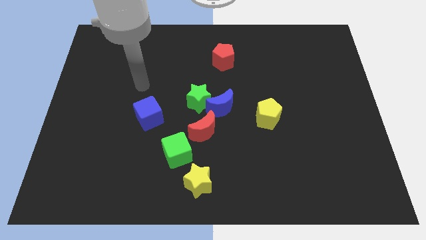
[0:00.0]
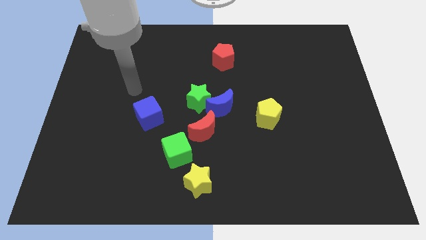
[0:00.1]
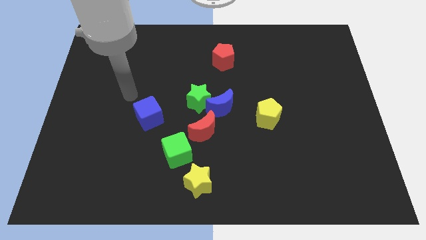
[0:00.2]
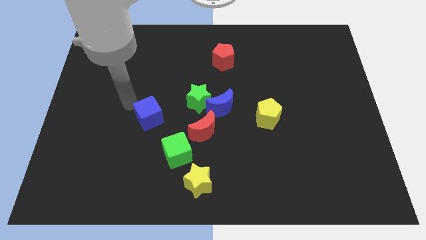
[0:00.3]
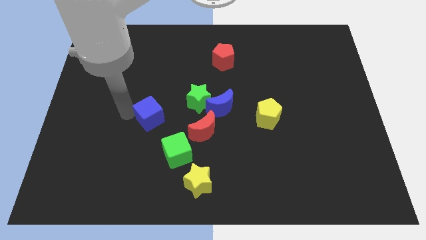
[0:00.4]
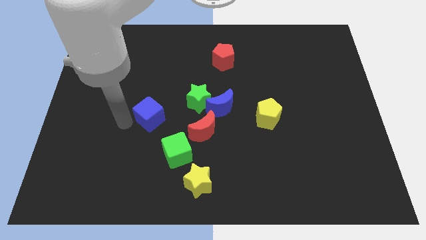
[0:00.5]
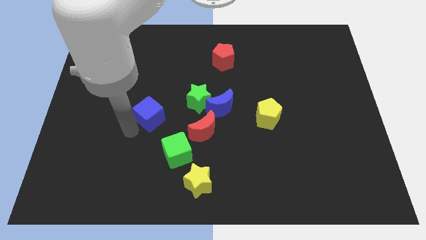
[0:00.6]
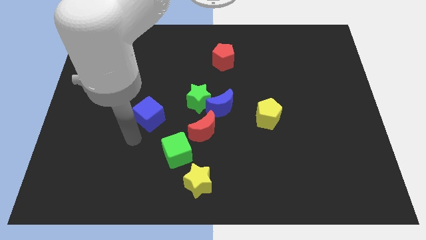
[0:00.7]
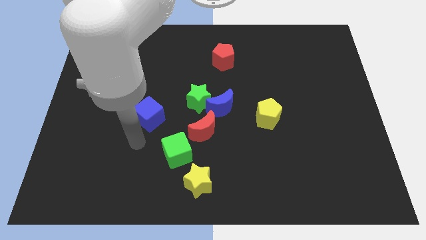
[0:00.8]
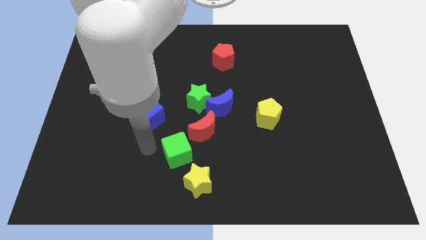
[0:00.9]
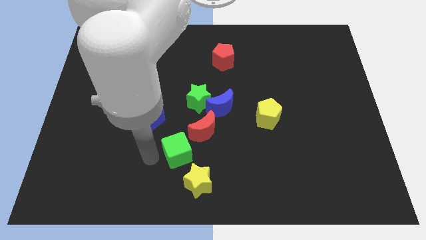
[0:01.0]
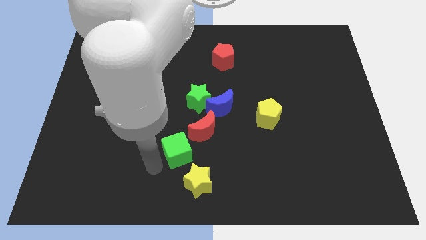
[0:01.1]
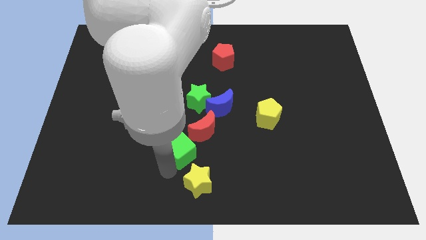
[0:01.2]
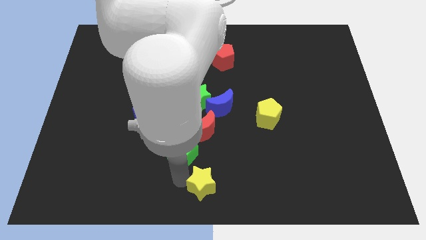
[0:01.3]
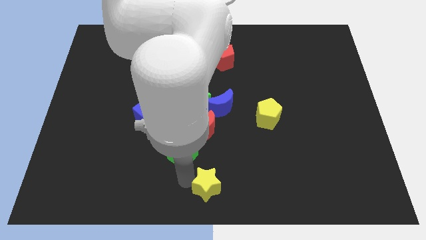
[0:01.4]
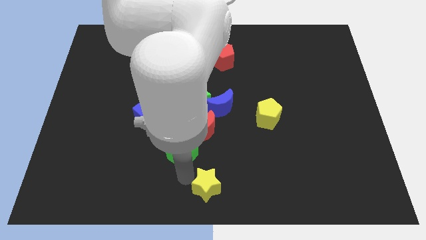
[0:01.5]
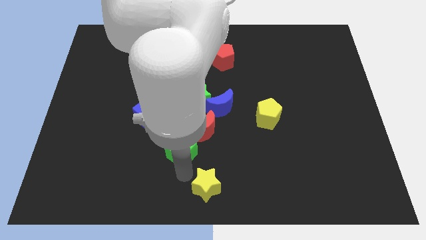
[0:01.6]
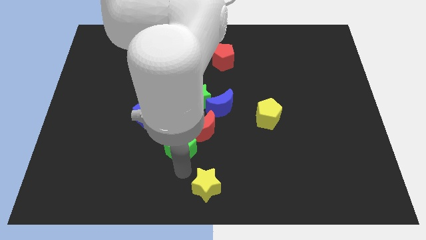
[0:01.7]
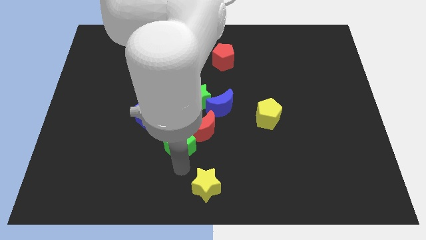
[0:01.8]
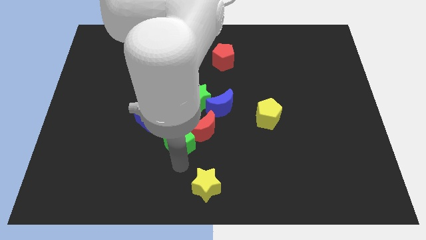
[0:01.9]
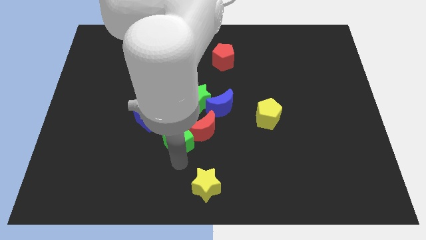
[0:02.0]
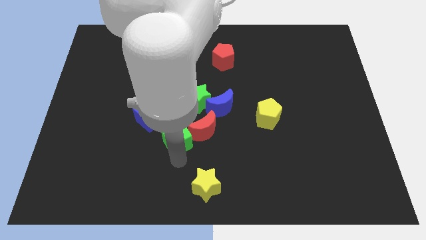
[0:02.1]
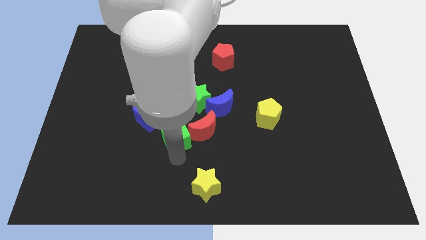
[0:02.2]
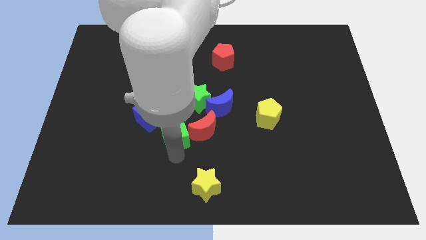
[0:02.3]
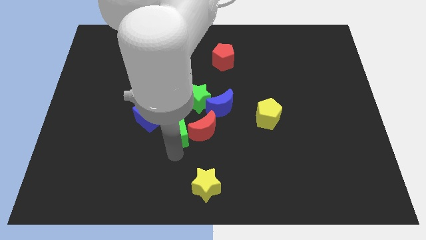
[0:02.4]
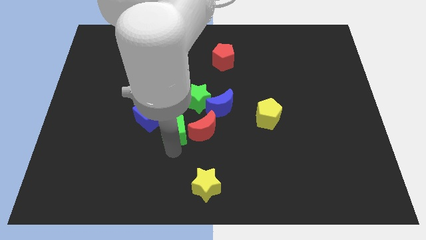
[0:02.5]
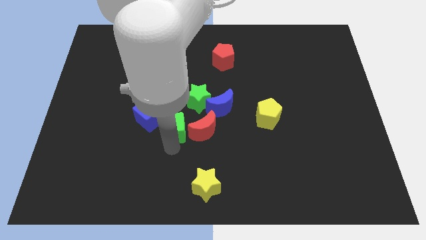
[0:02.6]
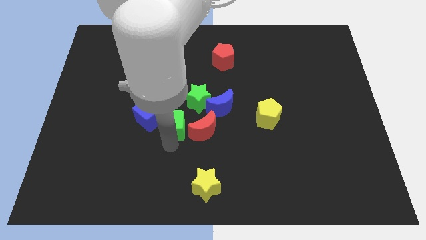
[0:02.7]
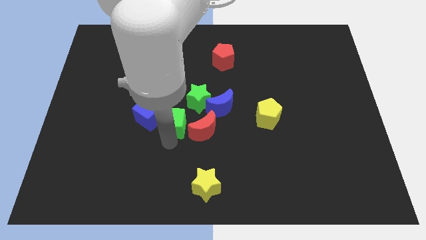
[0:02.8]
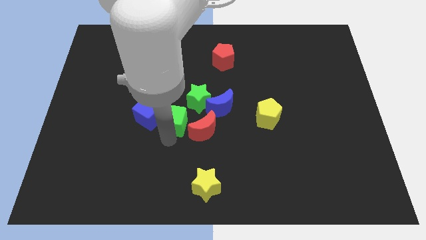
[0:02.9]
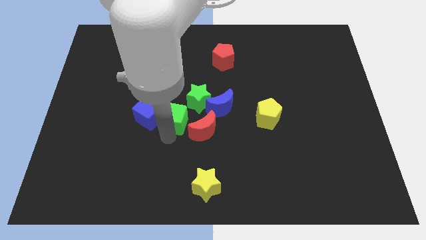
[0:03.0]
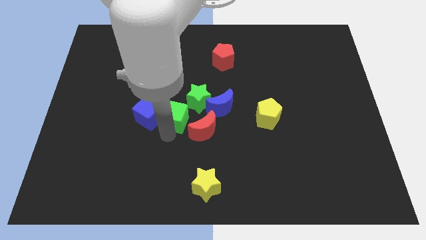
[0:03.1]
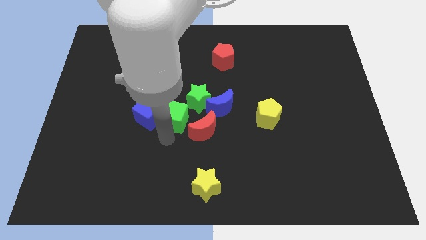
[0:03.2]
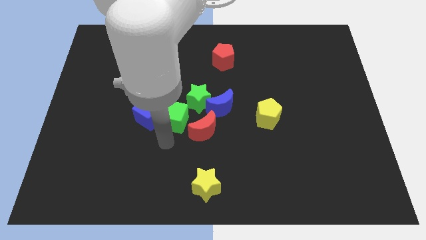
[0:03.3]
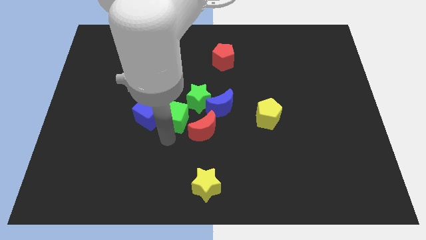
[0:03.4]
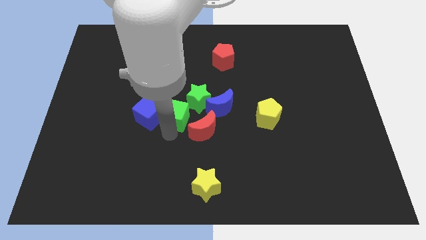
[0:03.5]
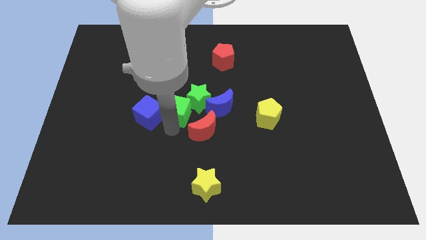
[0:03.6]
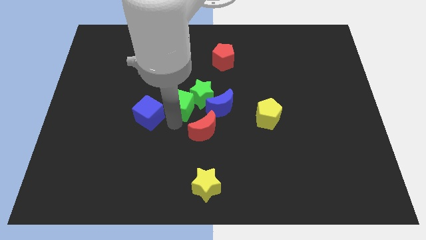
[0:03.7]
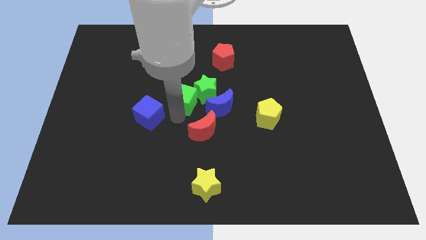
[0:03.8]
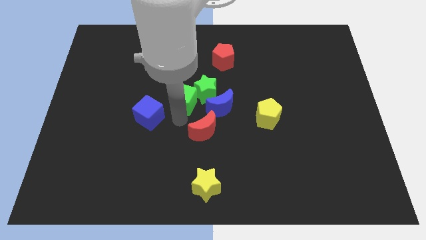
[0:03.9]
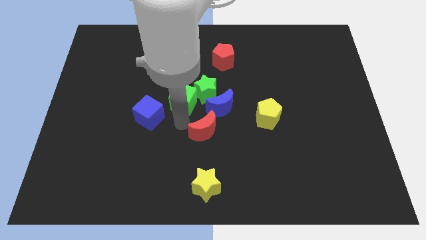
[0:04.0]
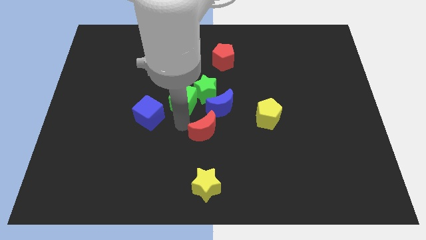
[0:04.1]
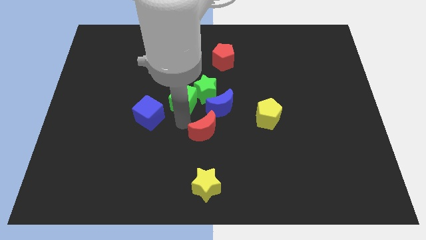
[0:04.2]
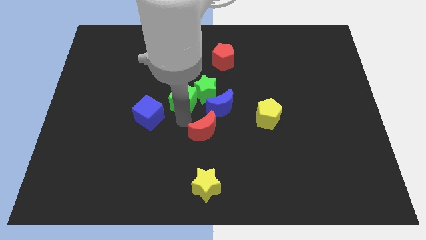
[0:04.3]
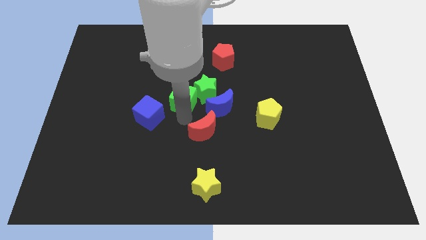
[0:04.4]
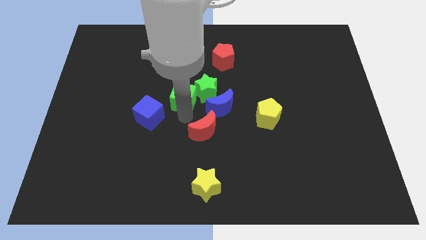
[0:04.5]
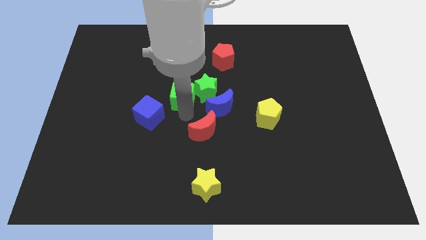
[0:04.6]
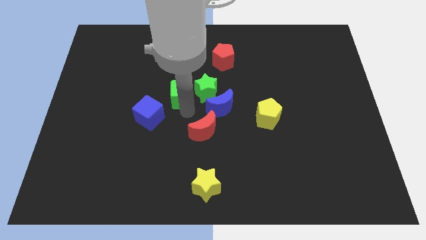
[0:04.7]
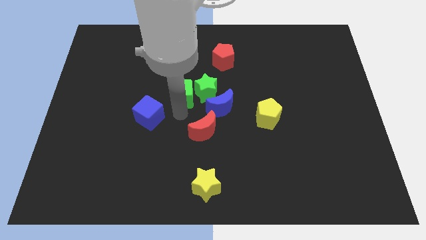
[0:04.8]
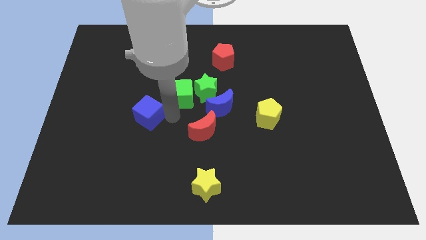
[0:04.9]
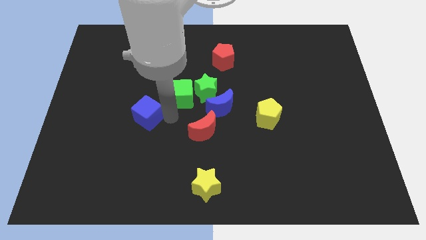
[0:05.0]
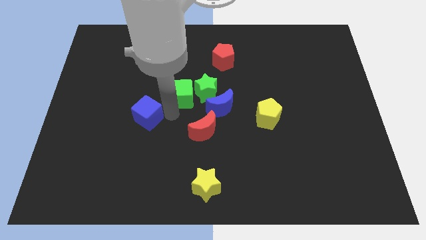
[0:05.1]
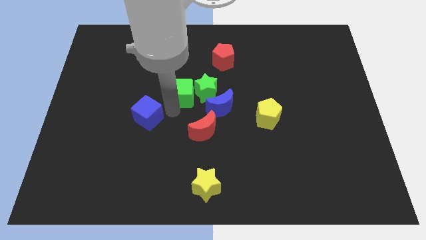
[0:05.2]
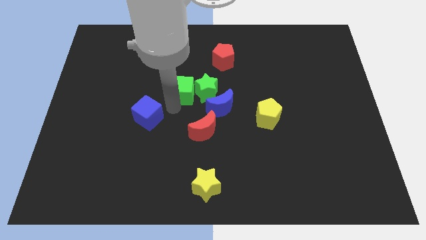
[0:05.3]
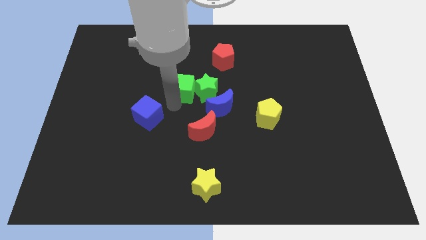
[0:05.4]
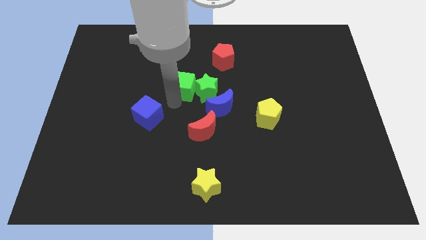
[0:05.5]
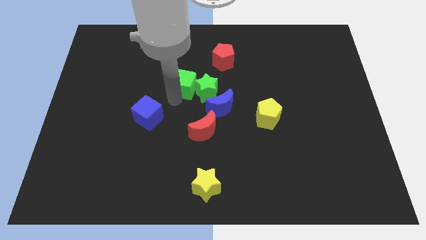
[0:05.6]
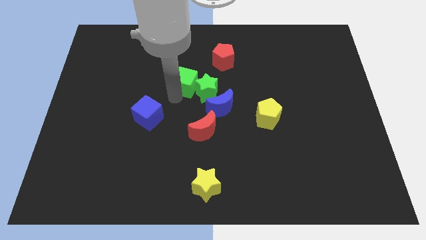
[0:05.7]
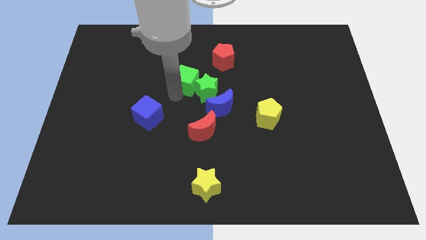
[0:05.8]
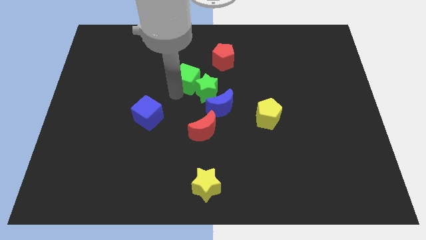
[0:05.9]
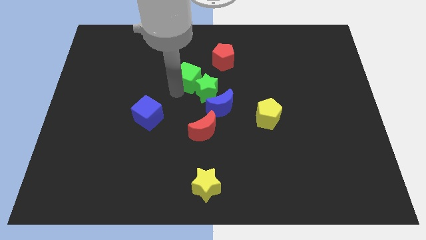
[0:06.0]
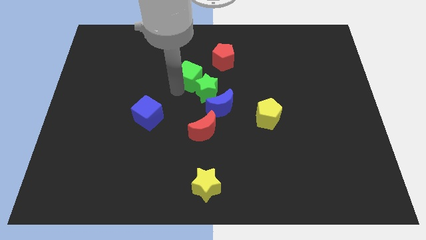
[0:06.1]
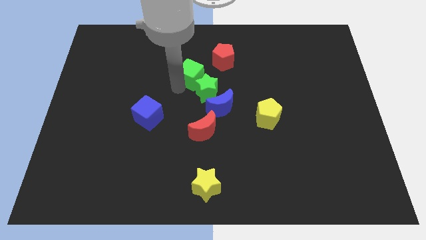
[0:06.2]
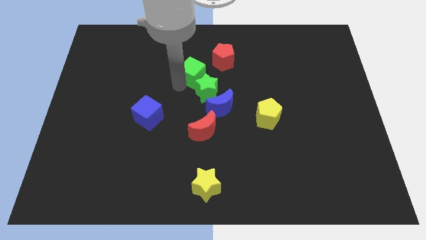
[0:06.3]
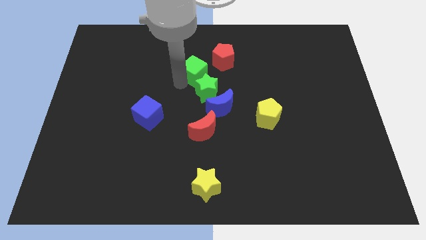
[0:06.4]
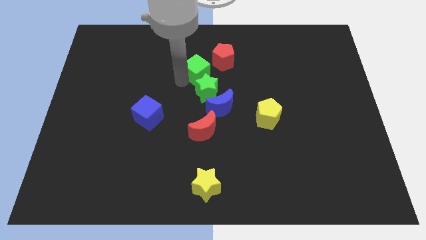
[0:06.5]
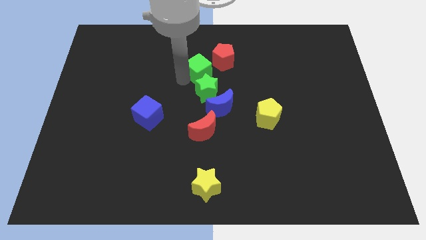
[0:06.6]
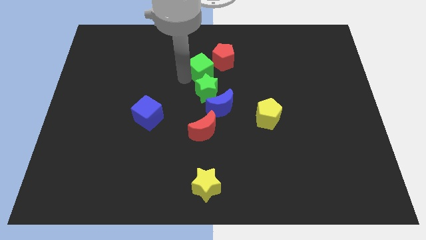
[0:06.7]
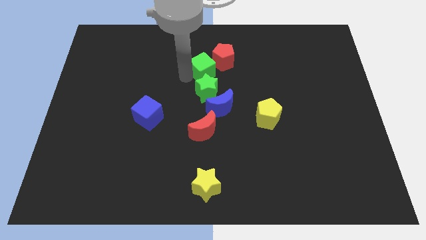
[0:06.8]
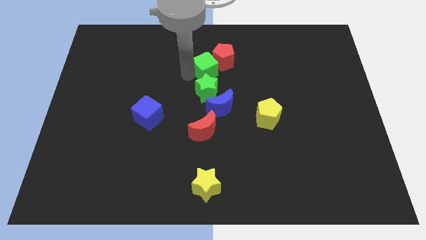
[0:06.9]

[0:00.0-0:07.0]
move the green cube to the red pentagon

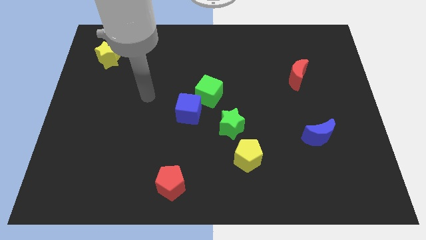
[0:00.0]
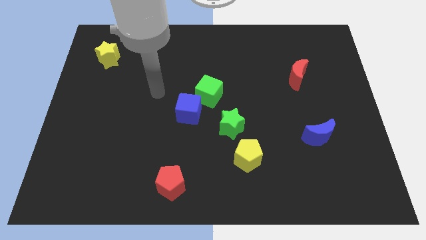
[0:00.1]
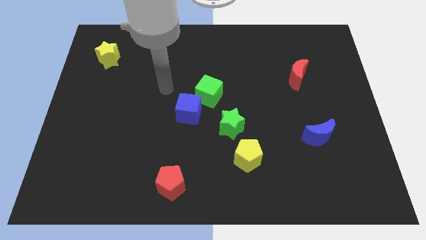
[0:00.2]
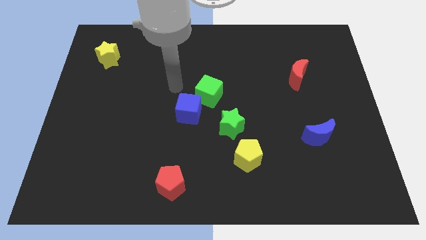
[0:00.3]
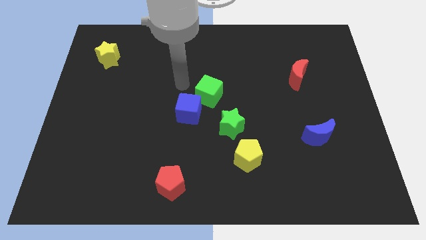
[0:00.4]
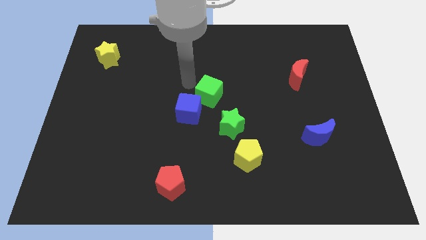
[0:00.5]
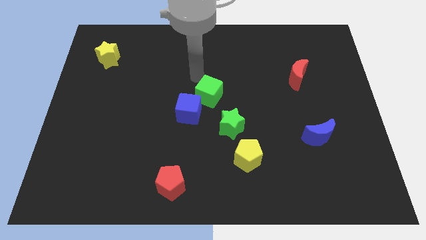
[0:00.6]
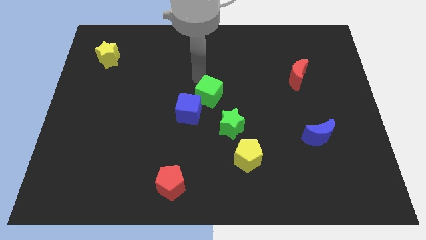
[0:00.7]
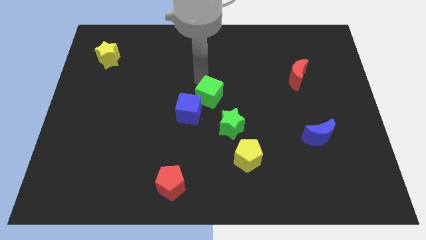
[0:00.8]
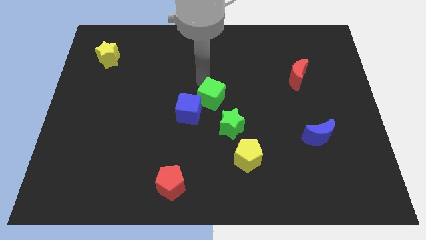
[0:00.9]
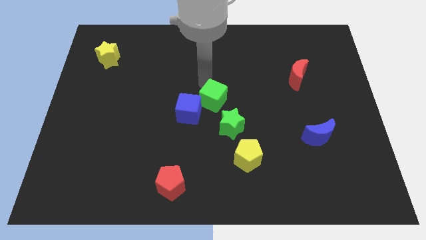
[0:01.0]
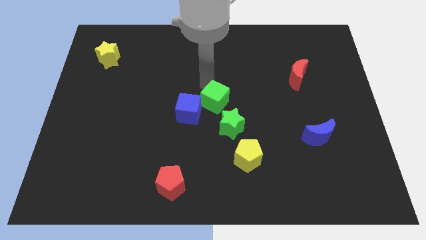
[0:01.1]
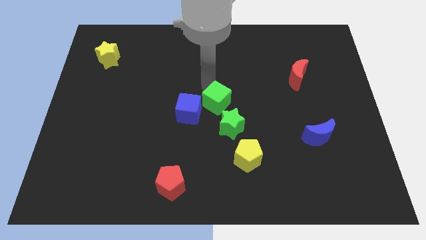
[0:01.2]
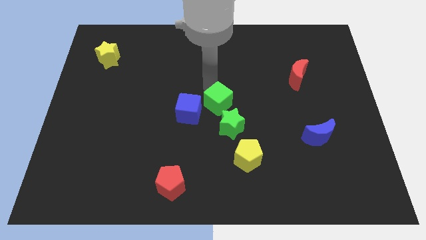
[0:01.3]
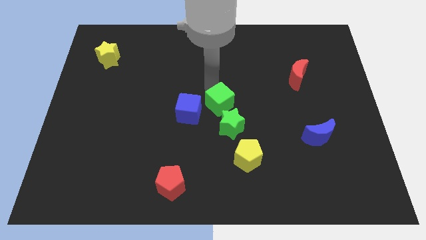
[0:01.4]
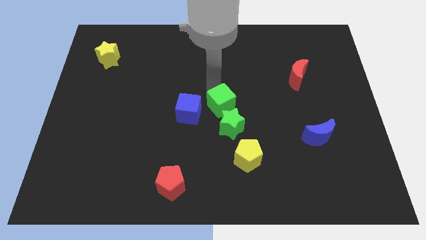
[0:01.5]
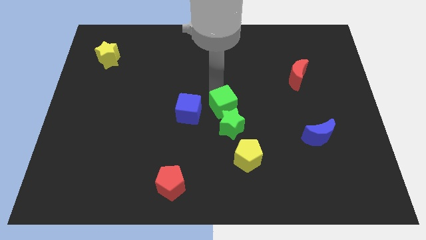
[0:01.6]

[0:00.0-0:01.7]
put the green cube close to the green star
